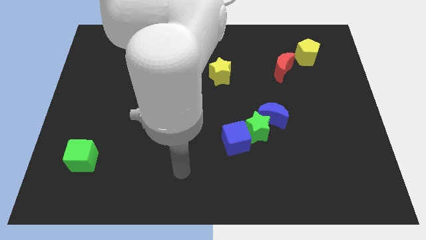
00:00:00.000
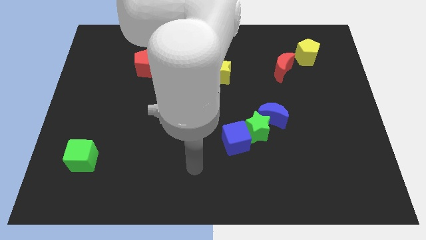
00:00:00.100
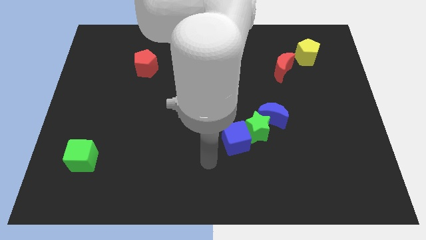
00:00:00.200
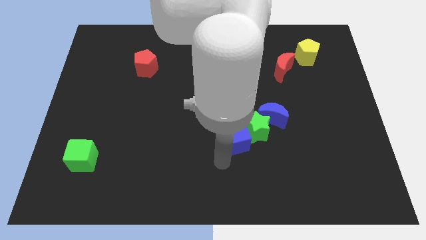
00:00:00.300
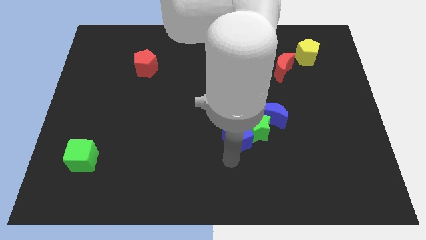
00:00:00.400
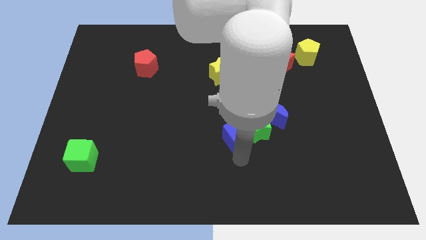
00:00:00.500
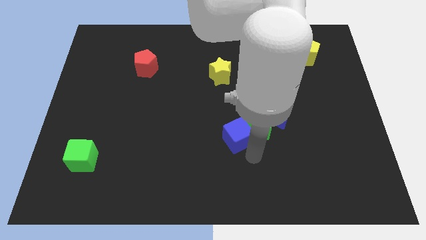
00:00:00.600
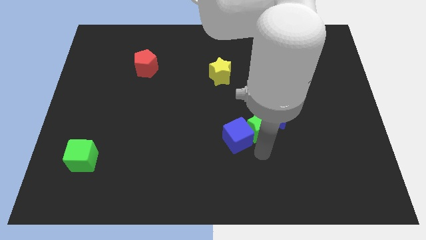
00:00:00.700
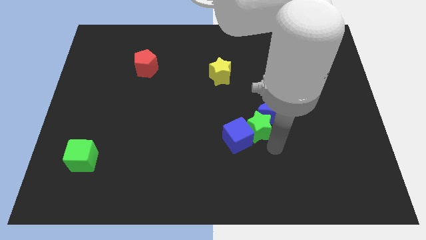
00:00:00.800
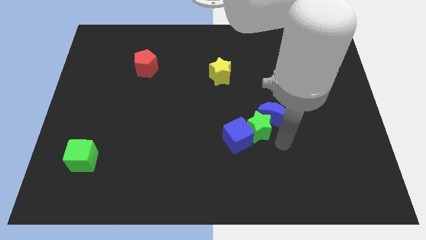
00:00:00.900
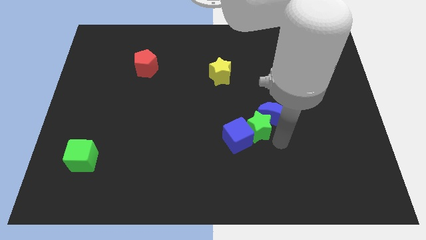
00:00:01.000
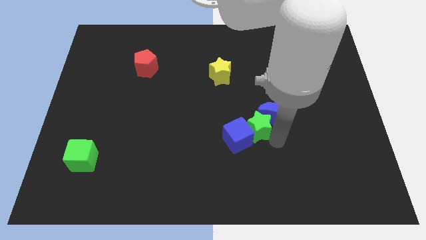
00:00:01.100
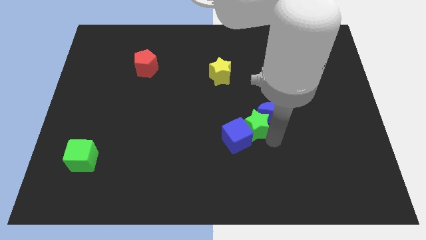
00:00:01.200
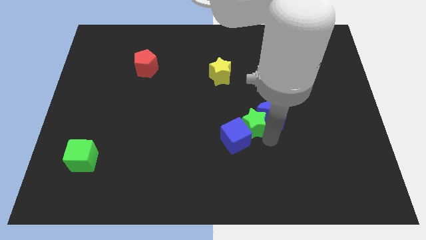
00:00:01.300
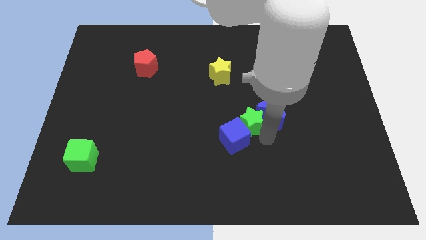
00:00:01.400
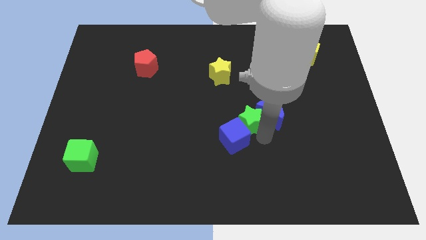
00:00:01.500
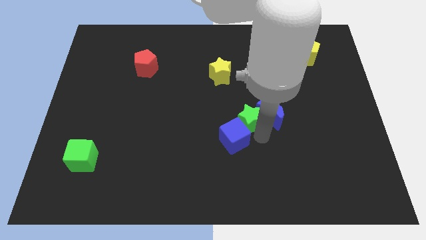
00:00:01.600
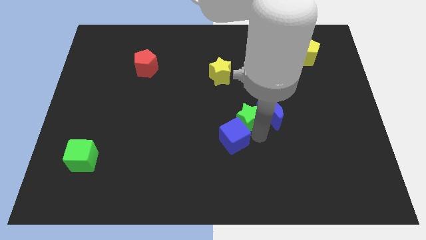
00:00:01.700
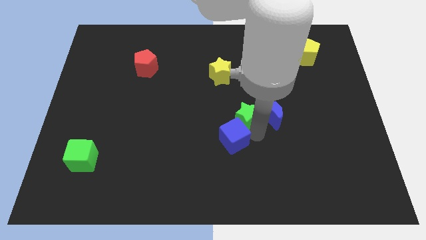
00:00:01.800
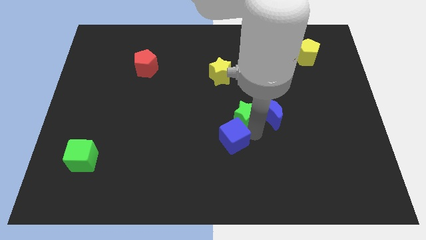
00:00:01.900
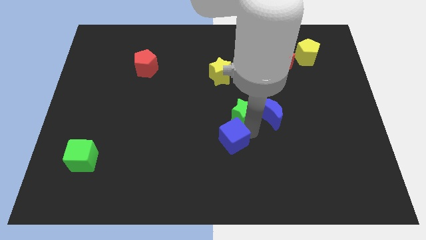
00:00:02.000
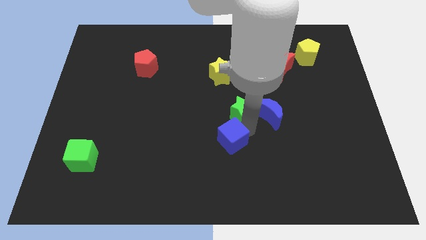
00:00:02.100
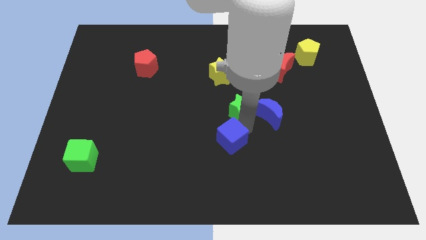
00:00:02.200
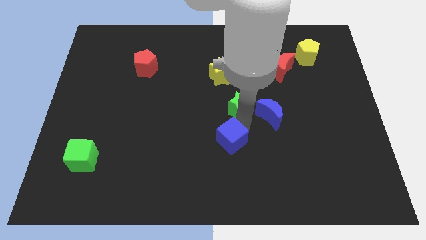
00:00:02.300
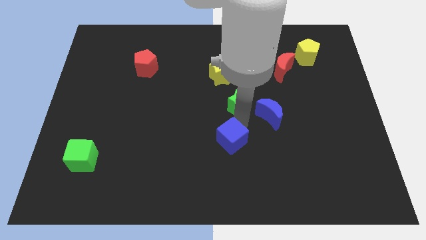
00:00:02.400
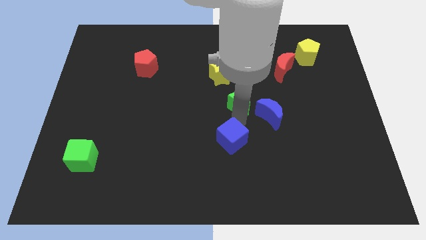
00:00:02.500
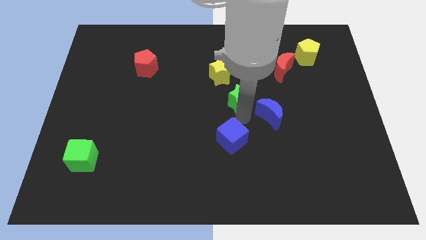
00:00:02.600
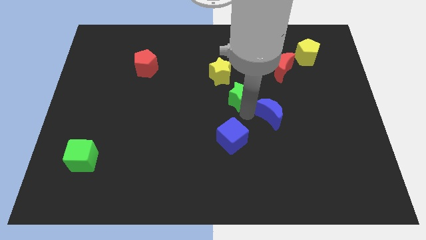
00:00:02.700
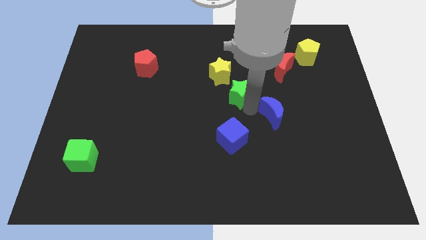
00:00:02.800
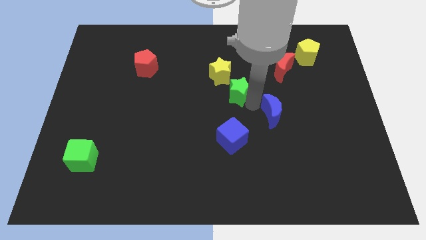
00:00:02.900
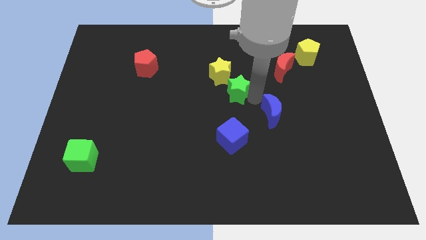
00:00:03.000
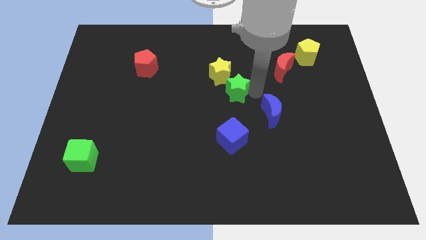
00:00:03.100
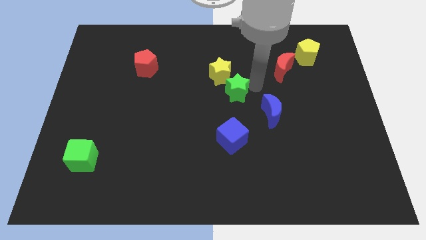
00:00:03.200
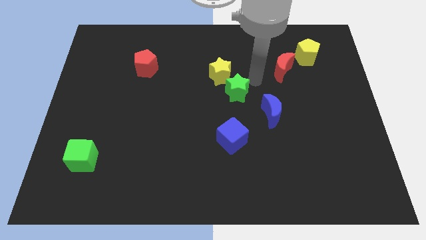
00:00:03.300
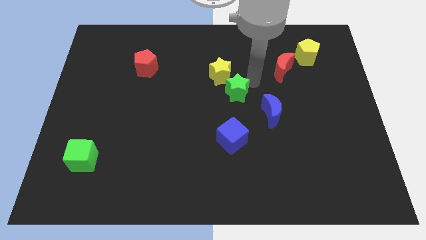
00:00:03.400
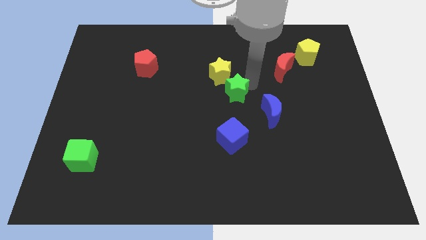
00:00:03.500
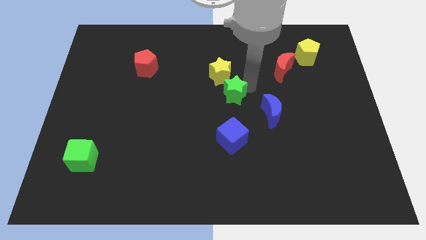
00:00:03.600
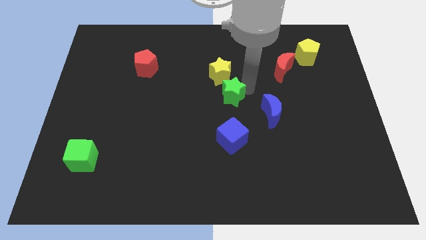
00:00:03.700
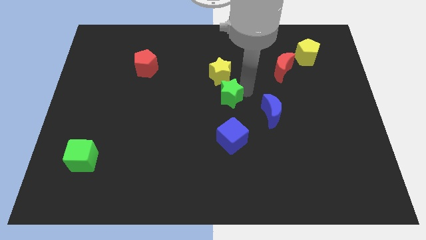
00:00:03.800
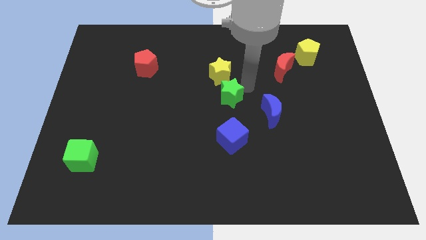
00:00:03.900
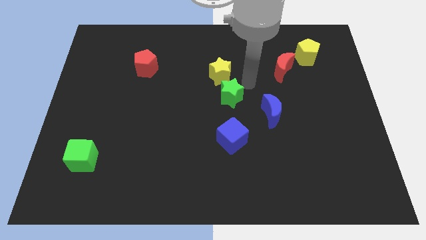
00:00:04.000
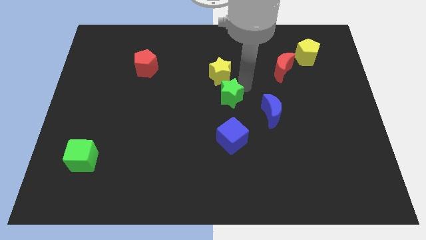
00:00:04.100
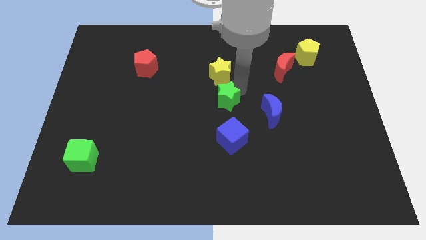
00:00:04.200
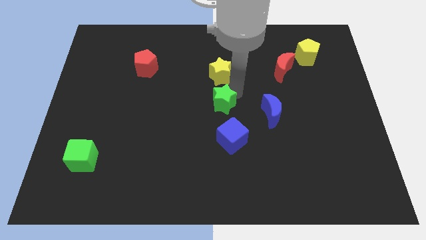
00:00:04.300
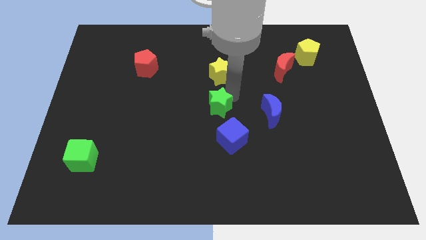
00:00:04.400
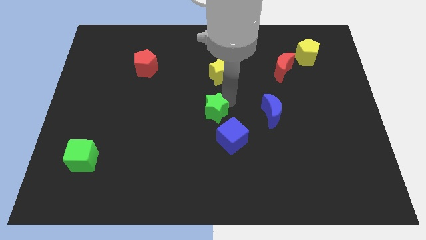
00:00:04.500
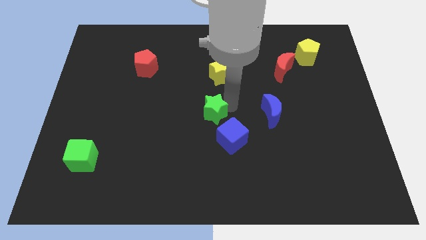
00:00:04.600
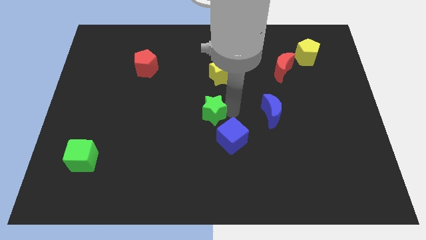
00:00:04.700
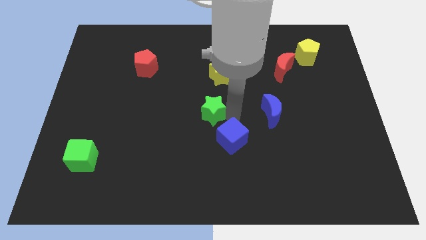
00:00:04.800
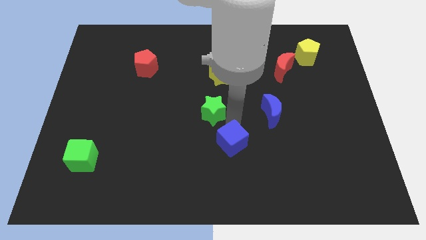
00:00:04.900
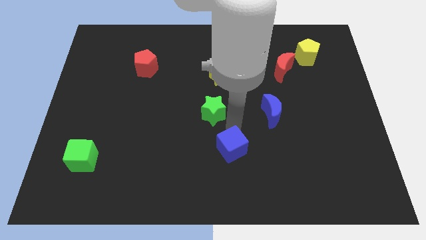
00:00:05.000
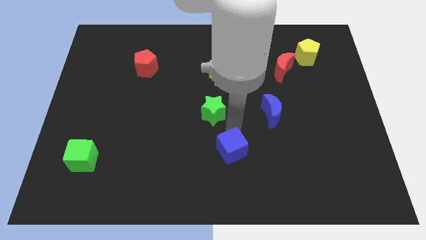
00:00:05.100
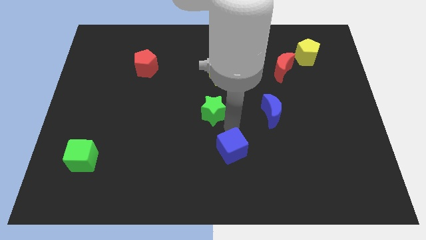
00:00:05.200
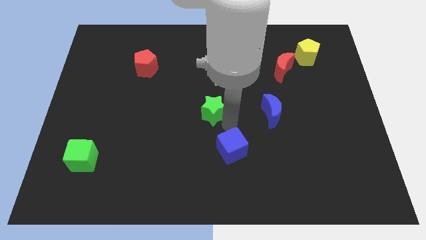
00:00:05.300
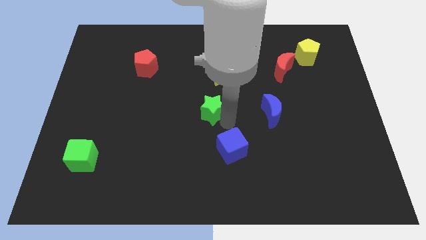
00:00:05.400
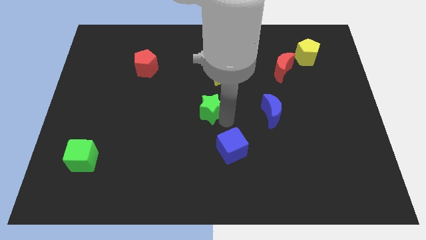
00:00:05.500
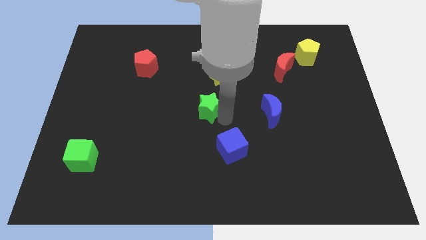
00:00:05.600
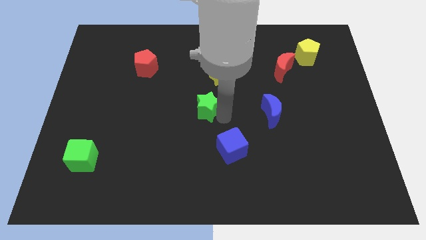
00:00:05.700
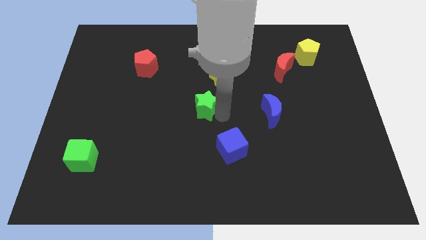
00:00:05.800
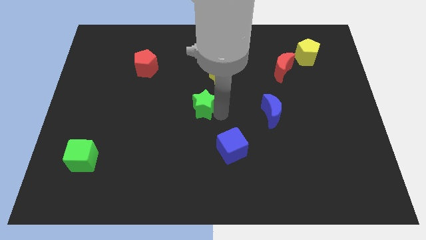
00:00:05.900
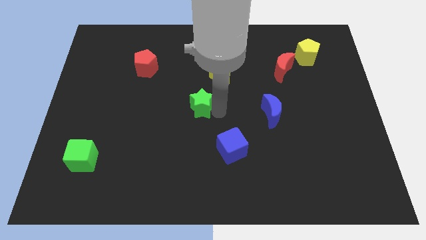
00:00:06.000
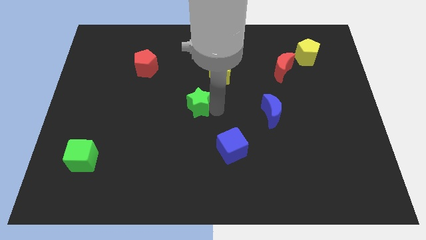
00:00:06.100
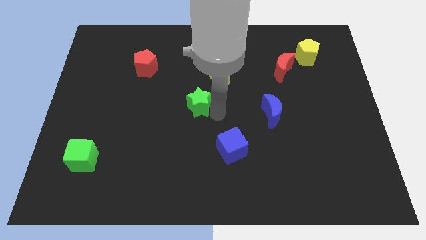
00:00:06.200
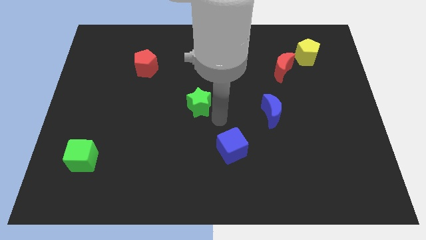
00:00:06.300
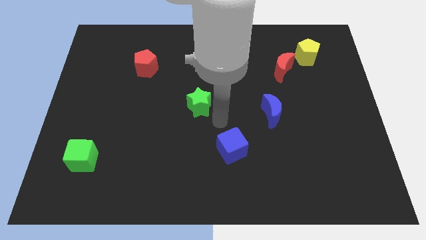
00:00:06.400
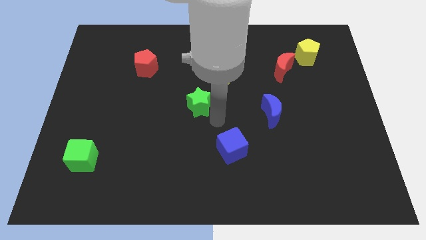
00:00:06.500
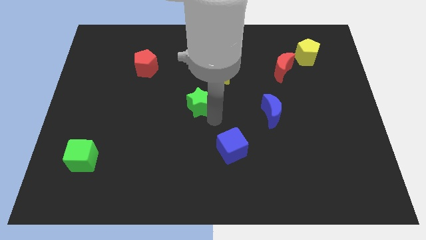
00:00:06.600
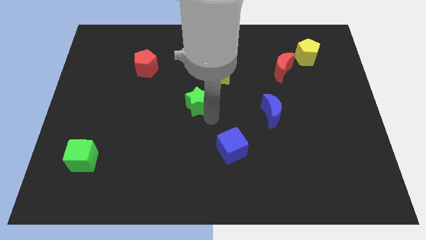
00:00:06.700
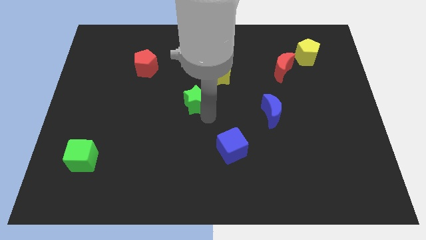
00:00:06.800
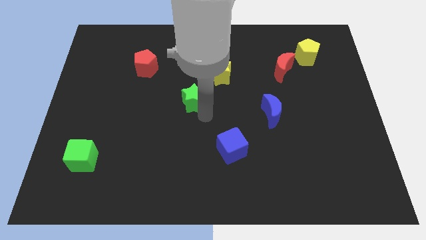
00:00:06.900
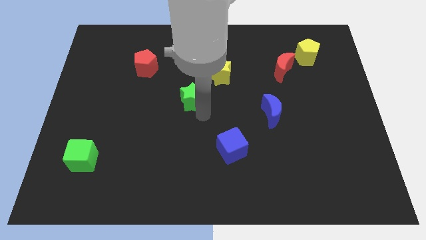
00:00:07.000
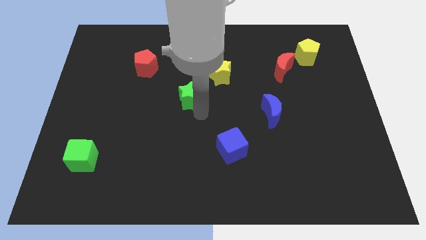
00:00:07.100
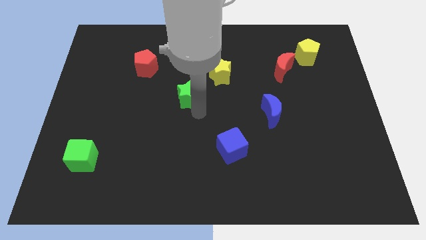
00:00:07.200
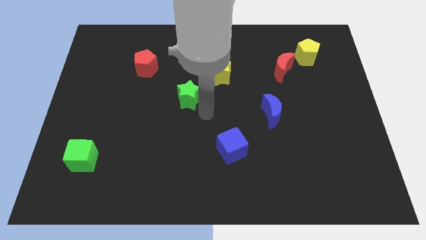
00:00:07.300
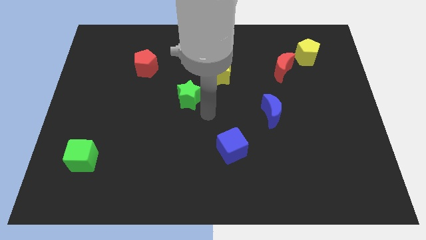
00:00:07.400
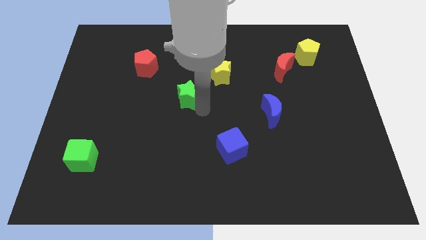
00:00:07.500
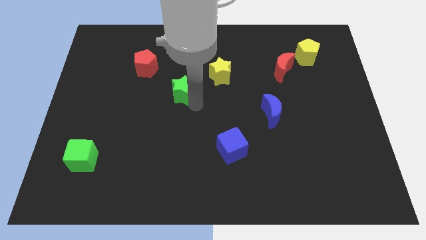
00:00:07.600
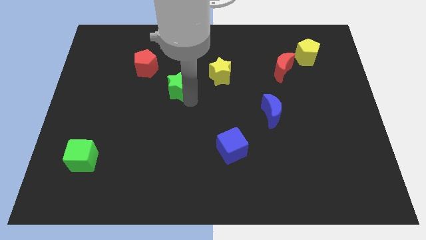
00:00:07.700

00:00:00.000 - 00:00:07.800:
push the green star to the bottom right of the red pentagon
